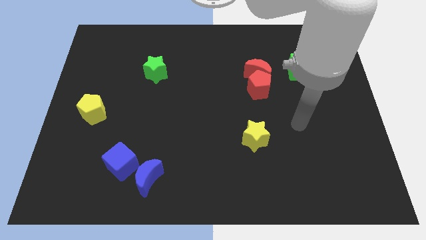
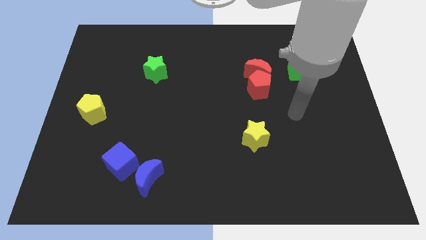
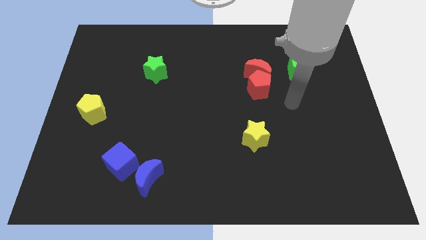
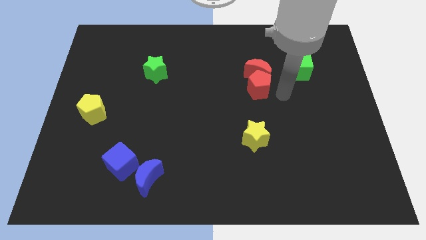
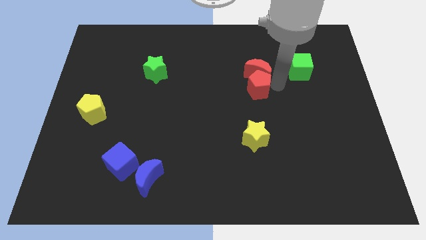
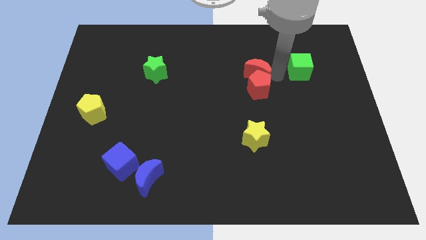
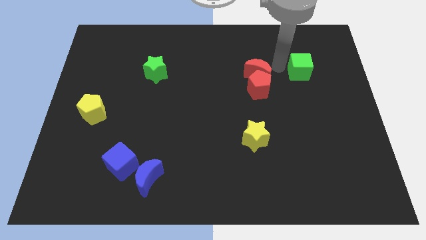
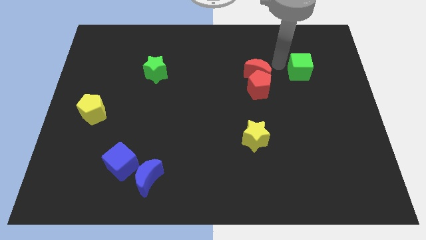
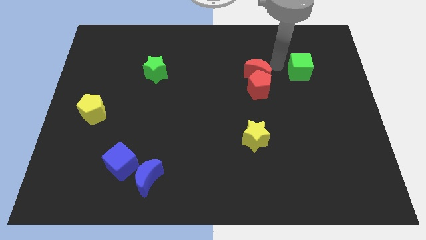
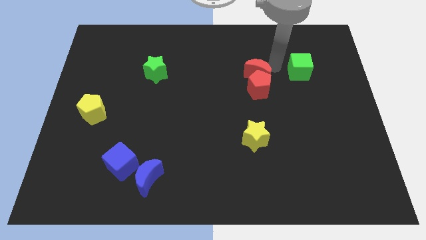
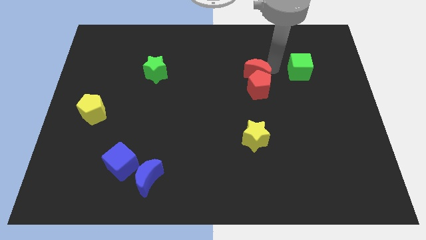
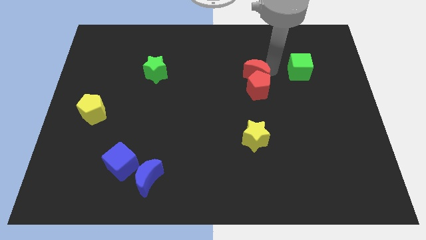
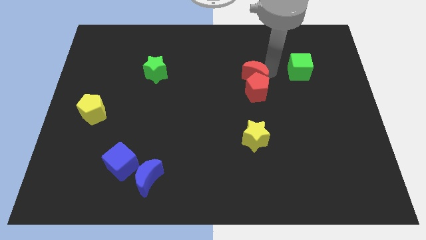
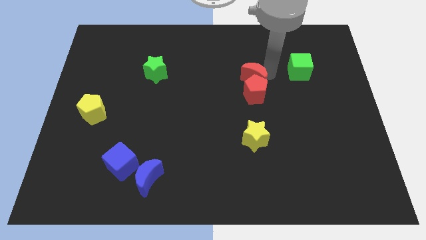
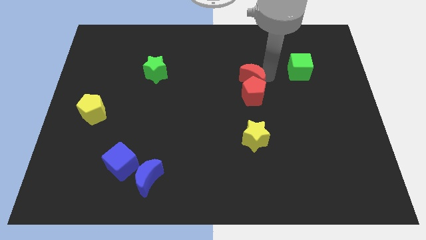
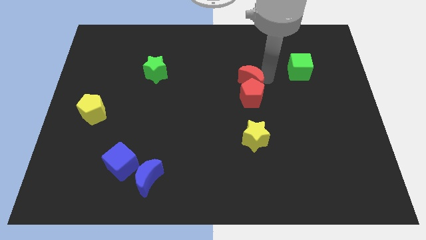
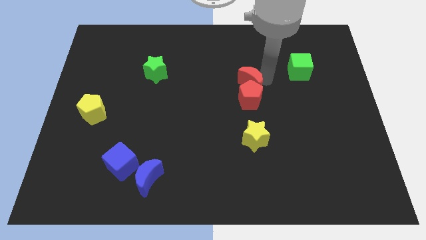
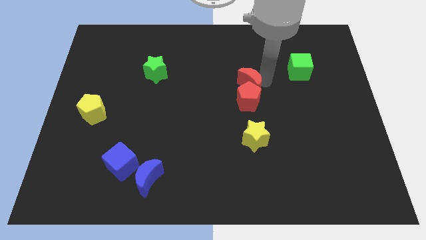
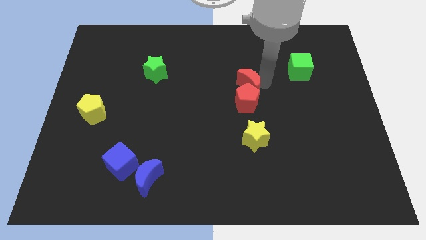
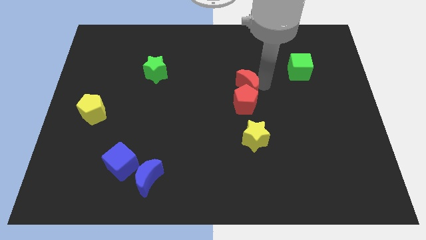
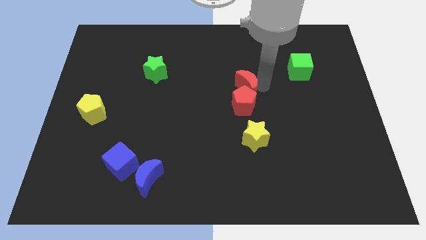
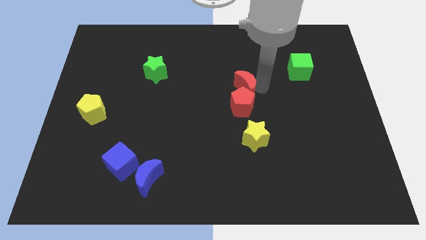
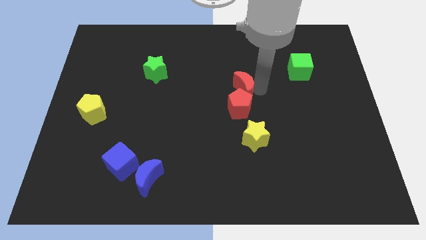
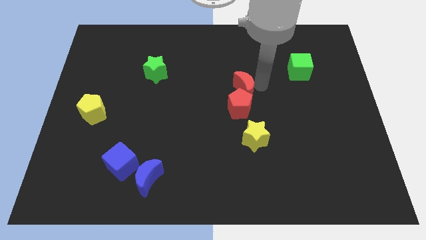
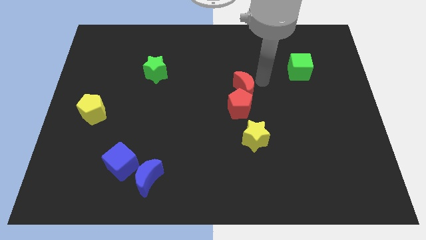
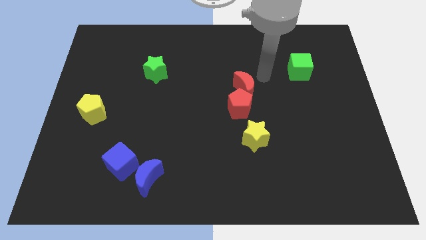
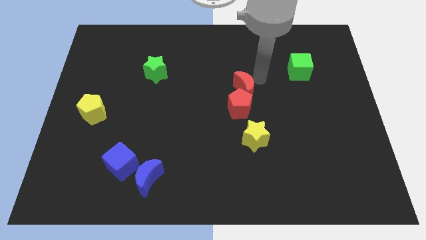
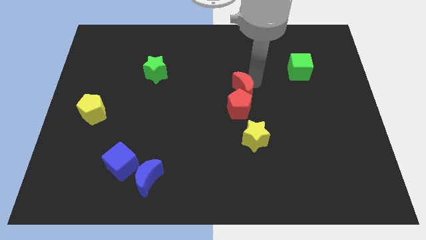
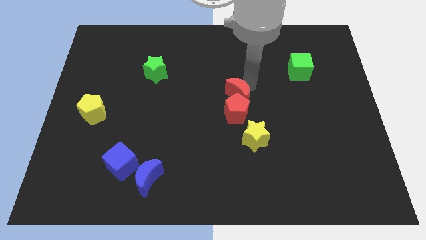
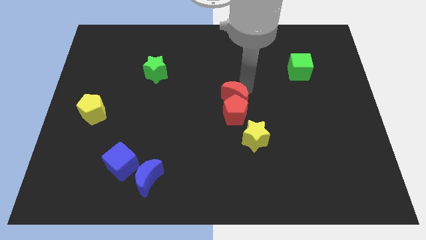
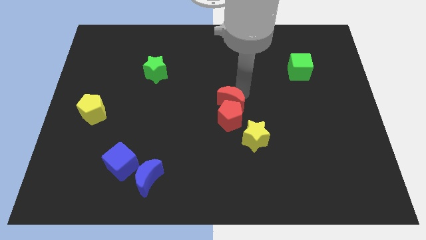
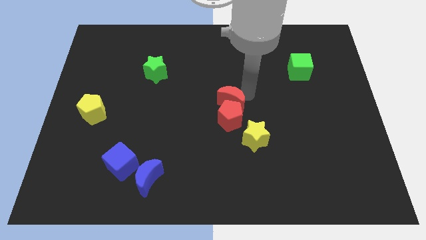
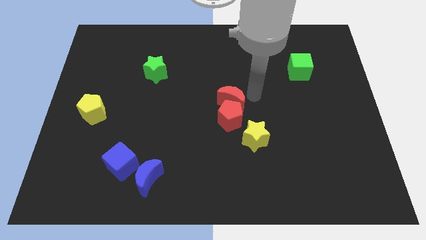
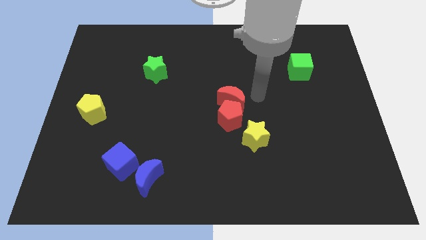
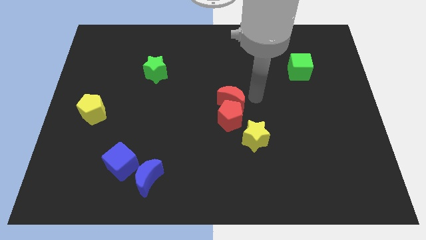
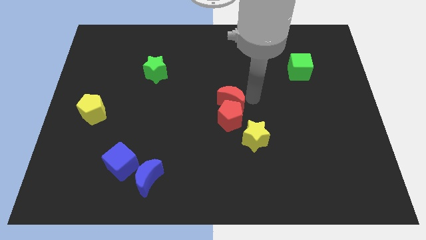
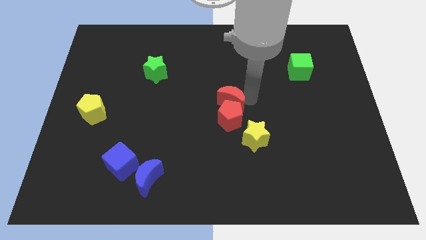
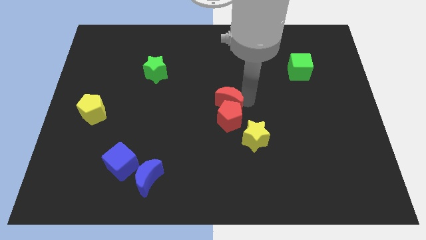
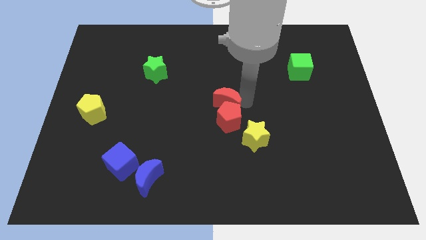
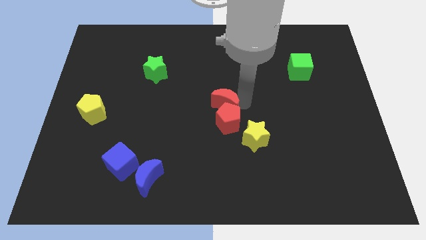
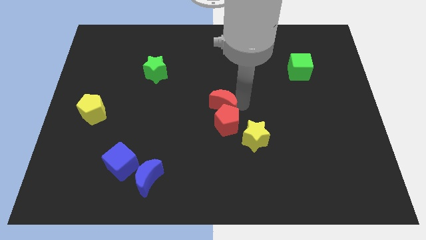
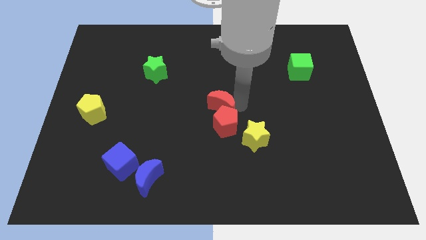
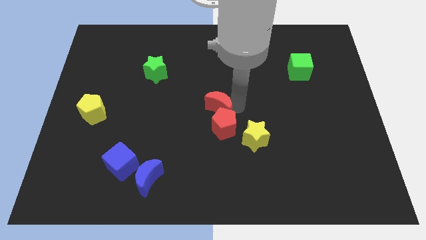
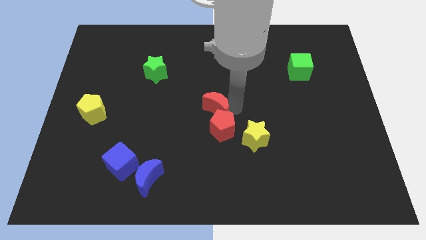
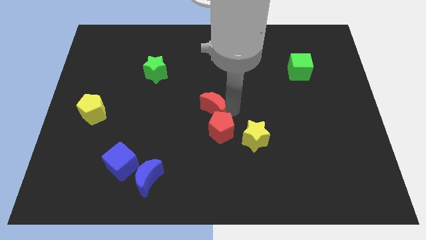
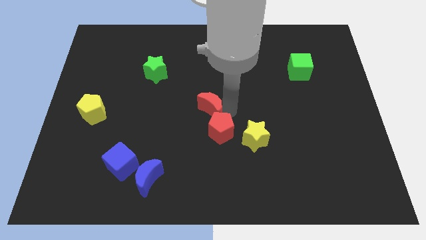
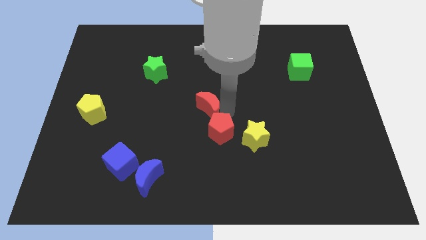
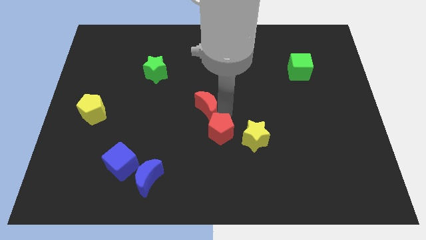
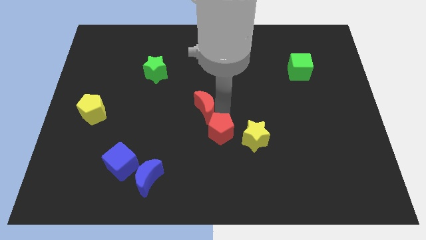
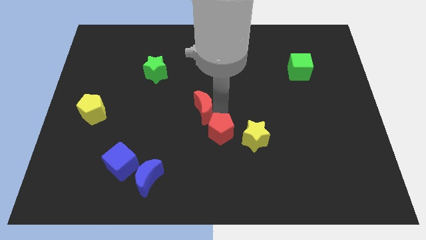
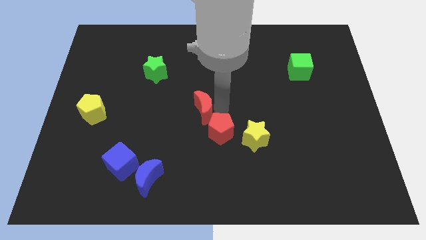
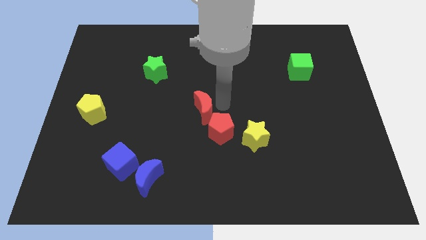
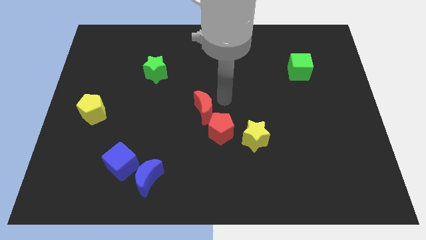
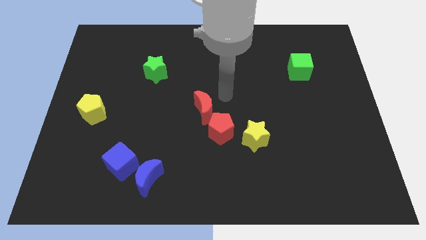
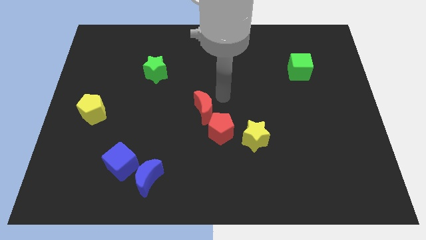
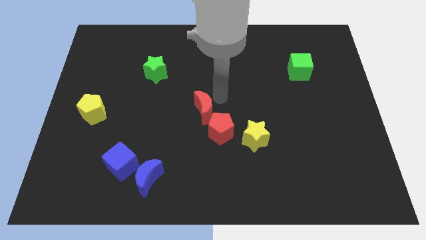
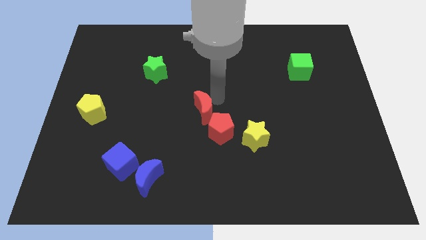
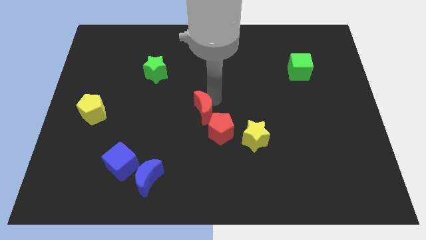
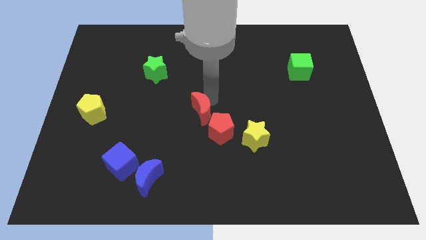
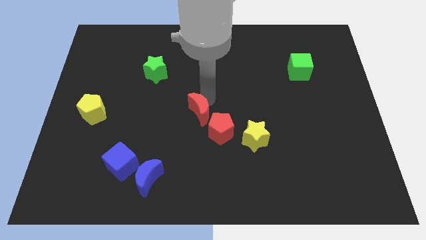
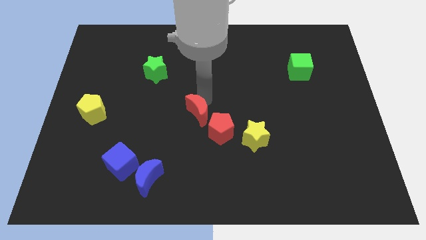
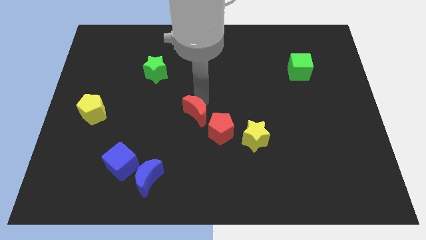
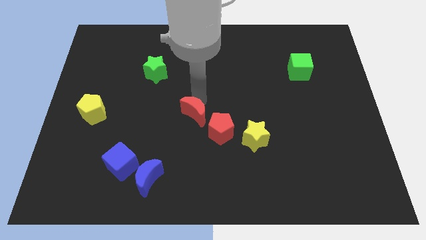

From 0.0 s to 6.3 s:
move the red moon diagonally downwards and left

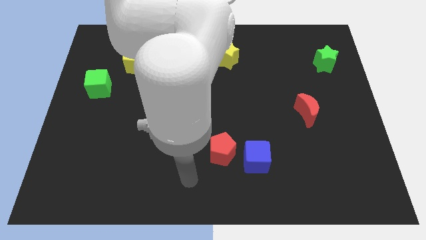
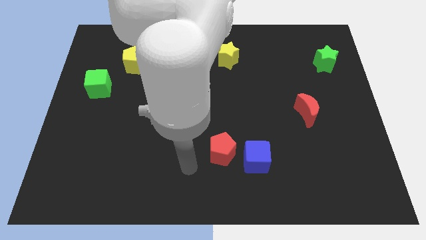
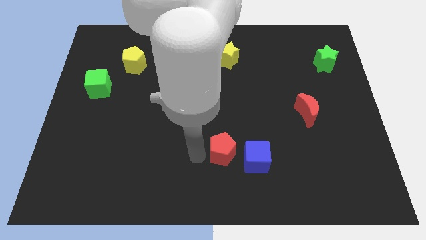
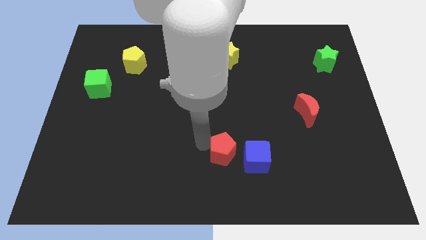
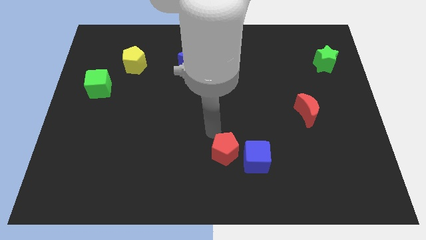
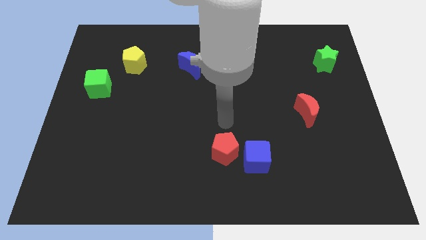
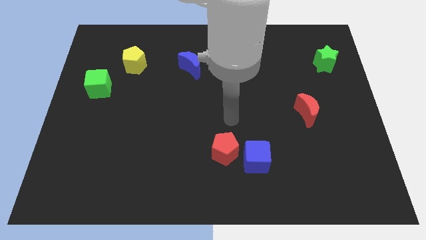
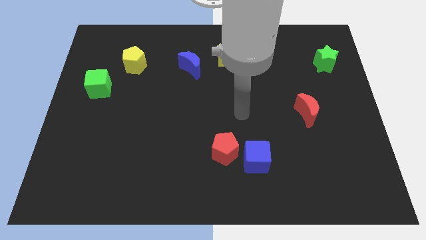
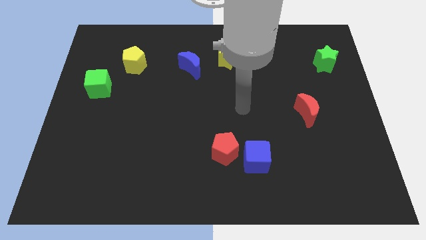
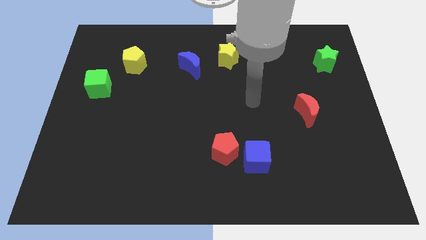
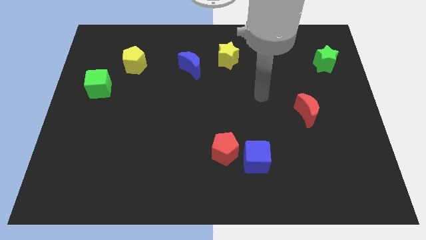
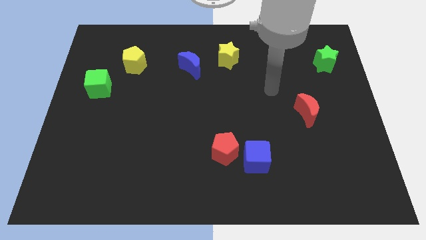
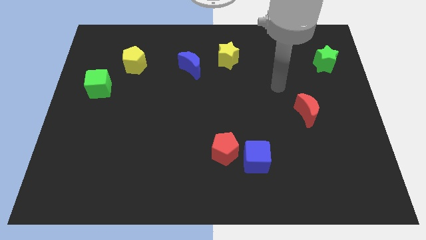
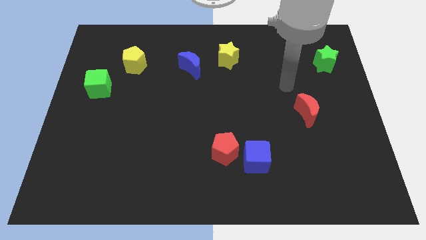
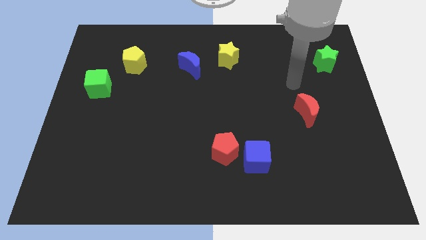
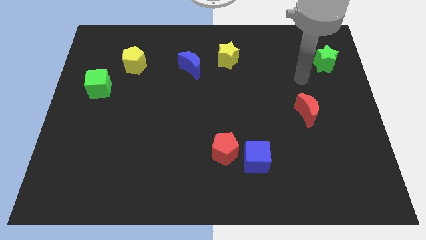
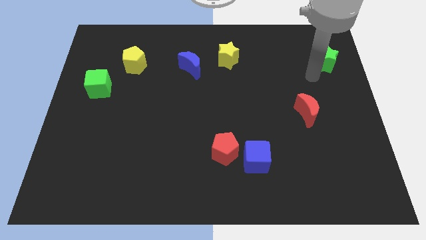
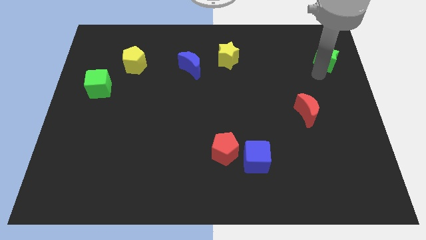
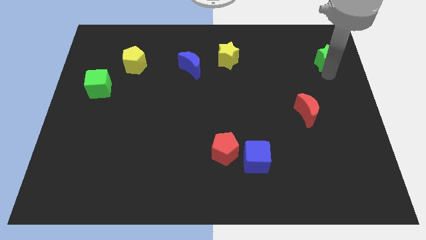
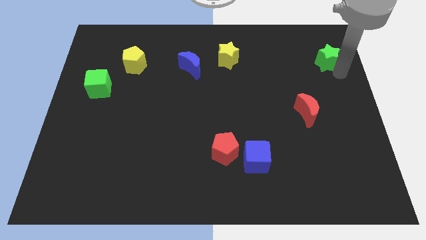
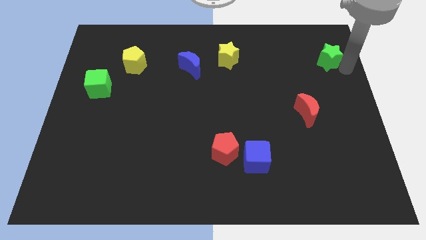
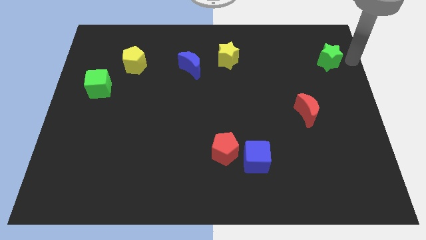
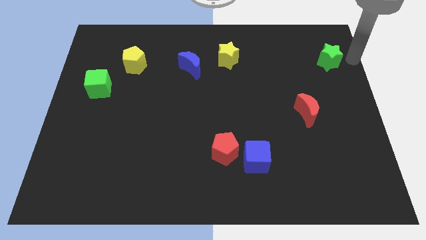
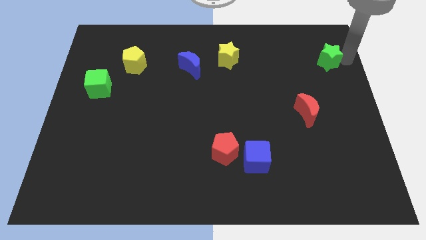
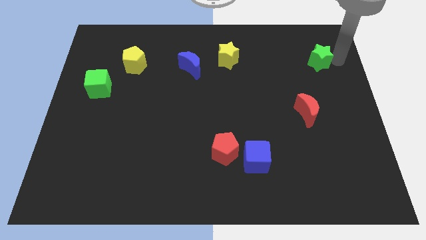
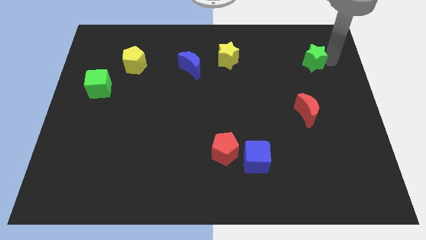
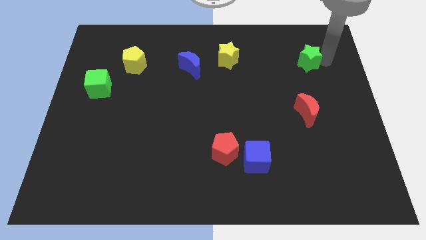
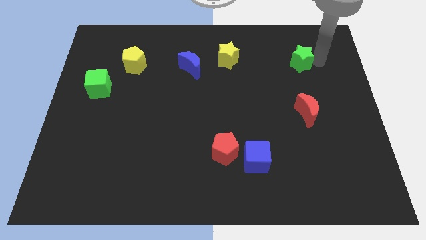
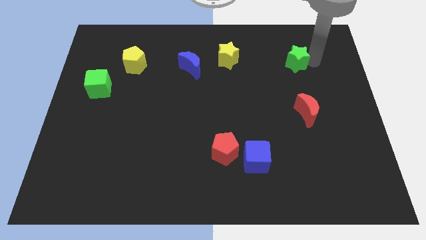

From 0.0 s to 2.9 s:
move the green star a bit to the left
